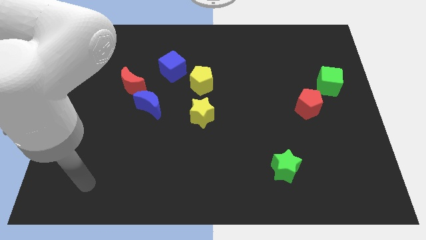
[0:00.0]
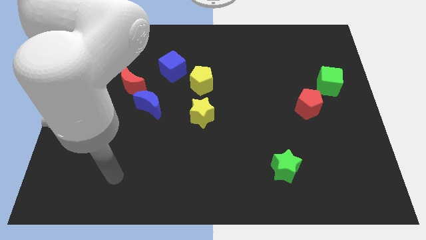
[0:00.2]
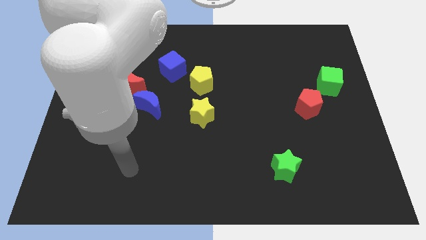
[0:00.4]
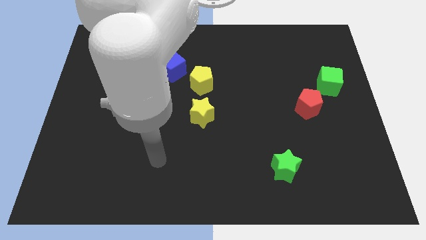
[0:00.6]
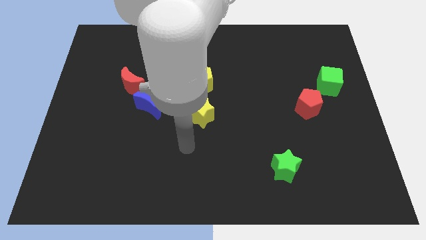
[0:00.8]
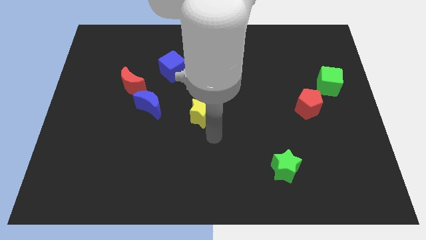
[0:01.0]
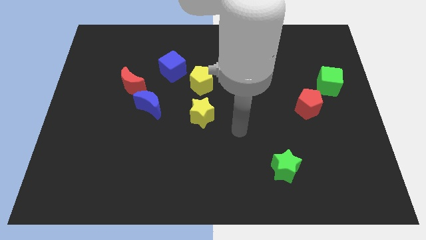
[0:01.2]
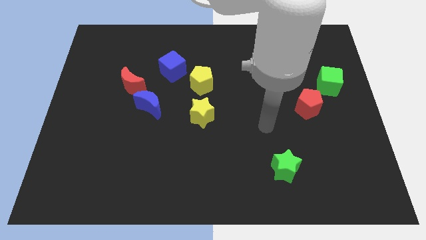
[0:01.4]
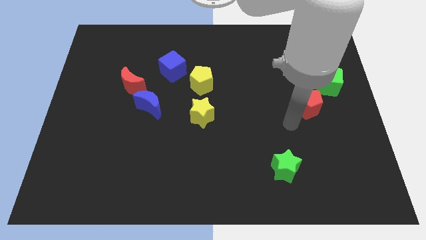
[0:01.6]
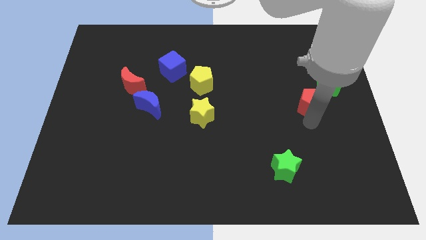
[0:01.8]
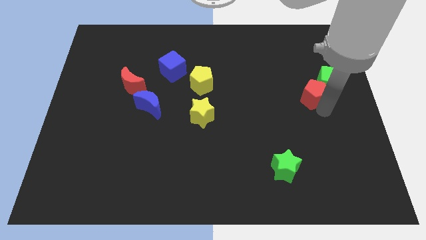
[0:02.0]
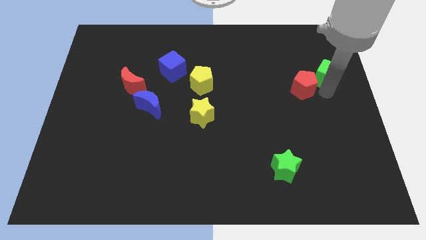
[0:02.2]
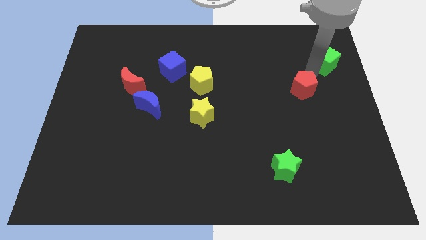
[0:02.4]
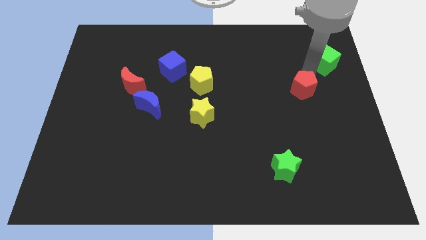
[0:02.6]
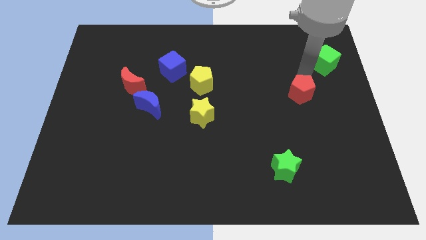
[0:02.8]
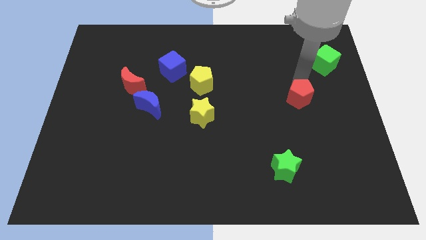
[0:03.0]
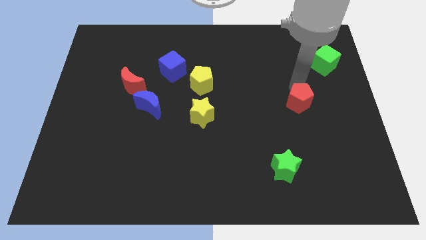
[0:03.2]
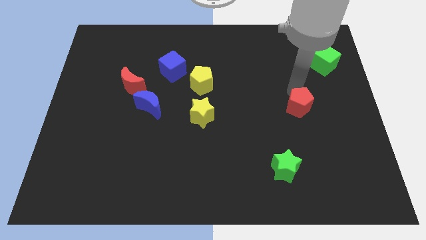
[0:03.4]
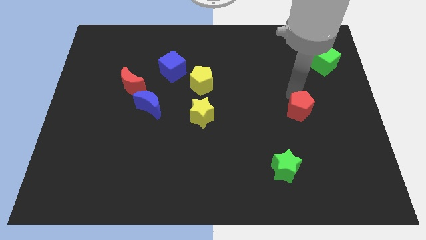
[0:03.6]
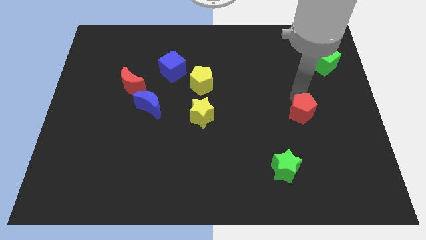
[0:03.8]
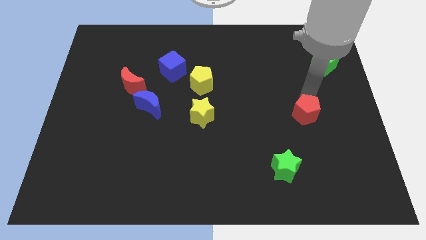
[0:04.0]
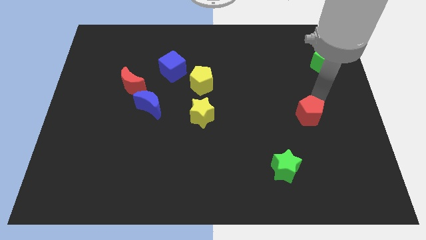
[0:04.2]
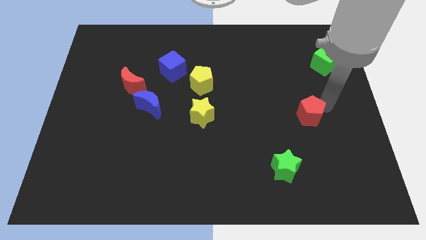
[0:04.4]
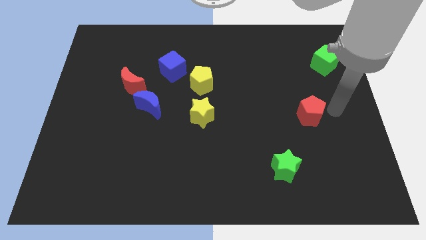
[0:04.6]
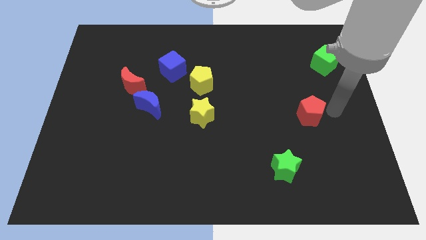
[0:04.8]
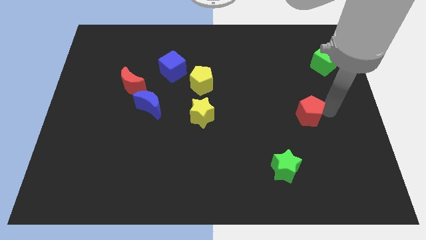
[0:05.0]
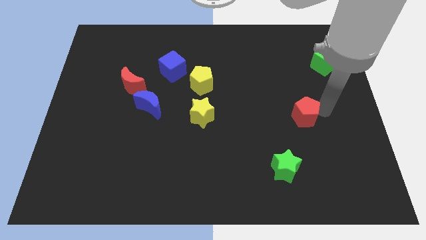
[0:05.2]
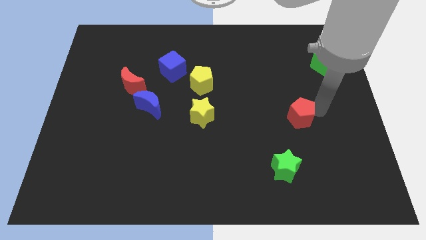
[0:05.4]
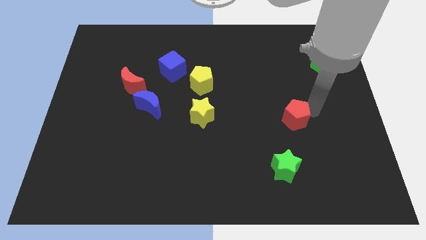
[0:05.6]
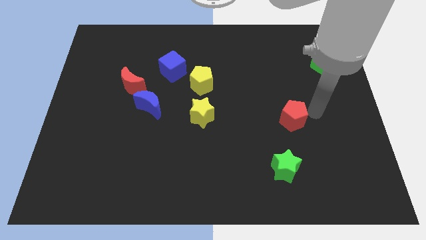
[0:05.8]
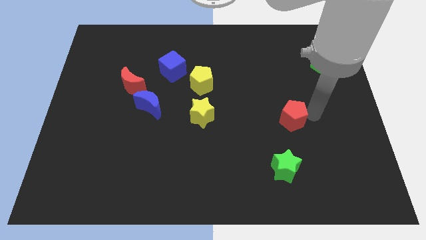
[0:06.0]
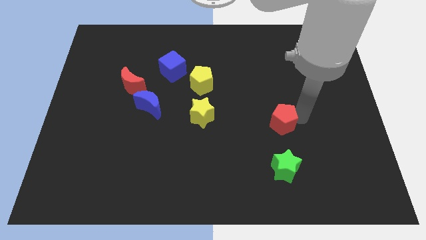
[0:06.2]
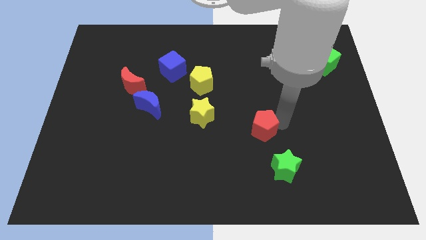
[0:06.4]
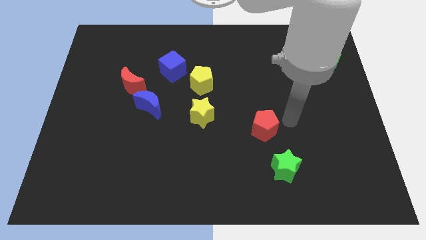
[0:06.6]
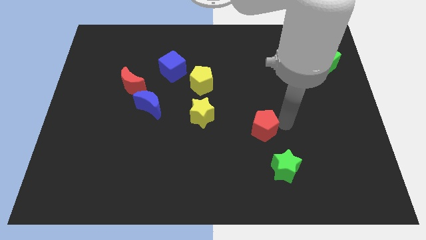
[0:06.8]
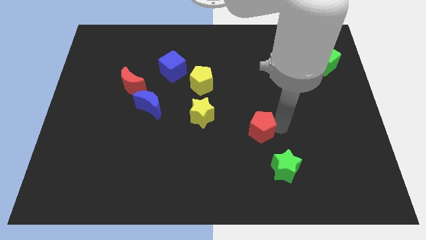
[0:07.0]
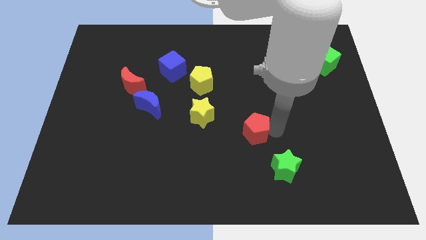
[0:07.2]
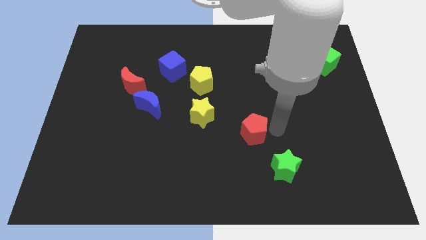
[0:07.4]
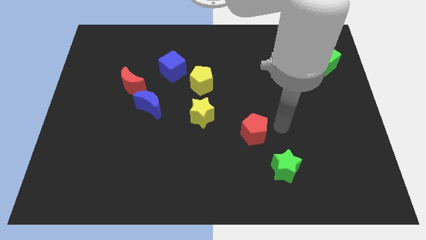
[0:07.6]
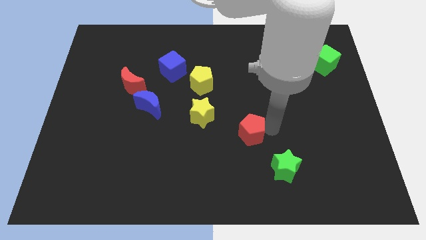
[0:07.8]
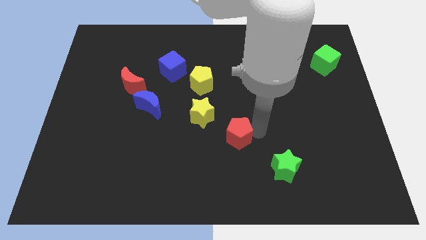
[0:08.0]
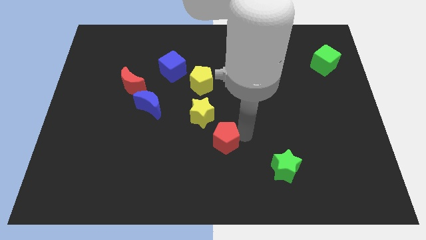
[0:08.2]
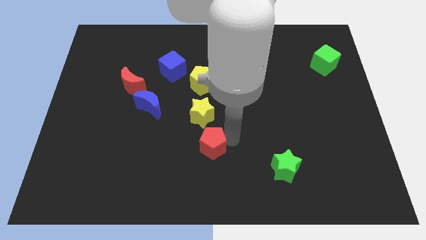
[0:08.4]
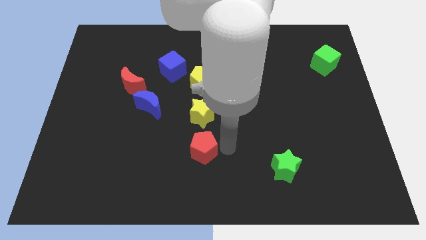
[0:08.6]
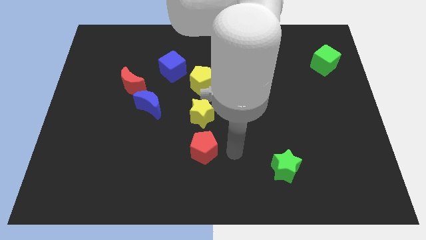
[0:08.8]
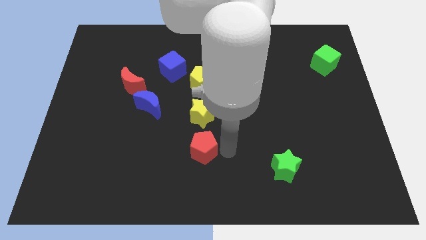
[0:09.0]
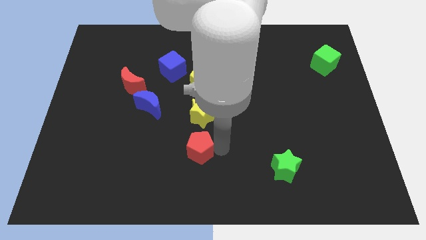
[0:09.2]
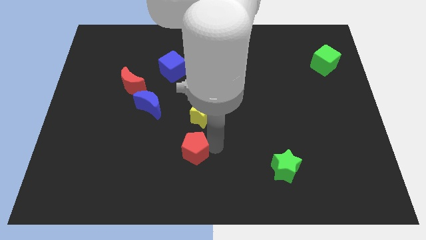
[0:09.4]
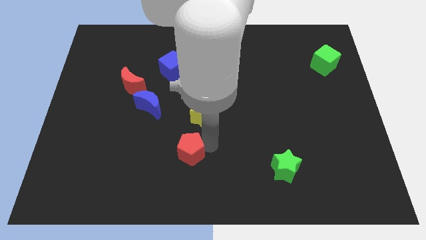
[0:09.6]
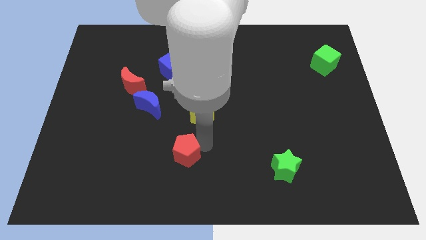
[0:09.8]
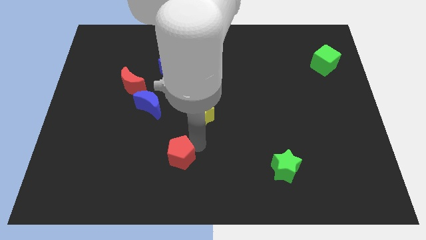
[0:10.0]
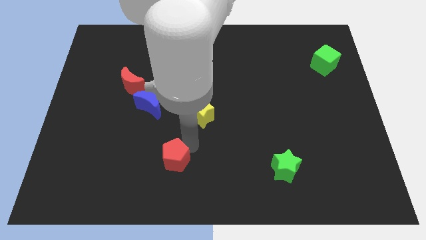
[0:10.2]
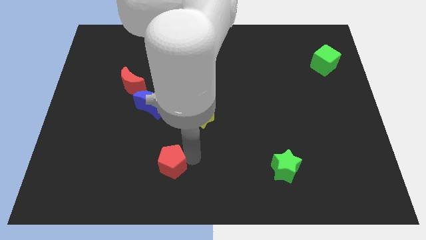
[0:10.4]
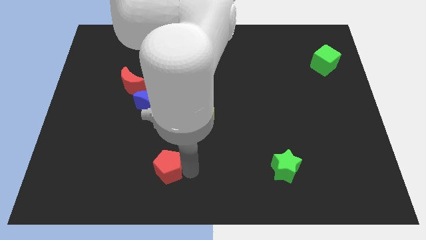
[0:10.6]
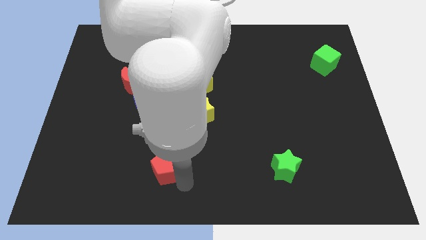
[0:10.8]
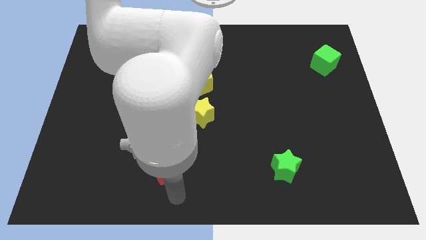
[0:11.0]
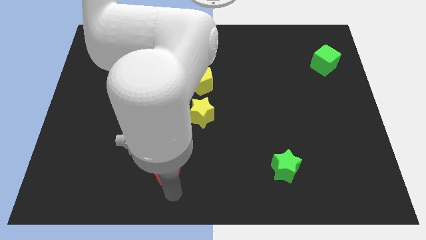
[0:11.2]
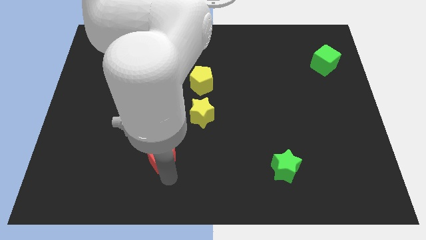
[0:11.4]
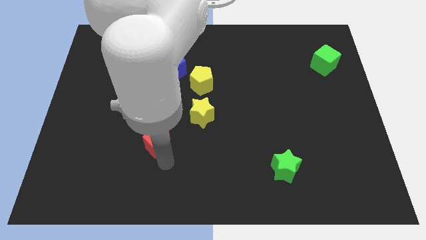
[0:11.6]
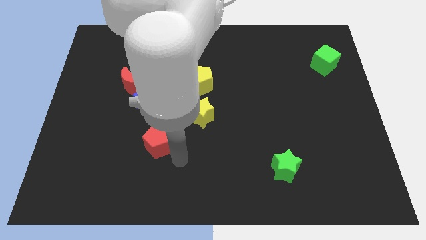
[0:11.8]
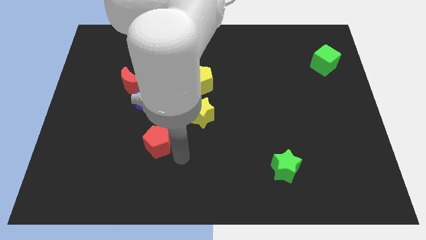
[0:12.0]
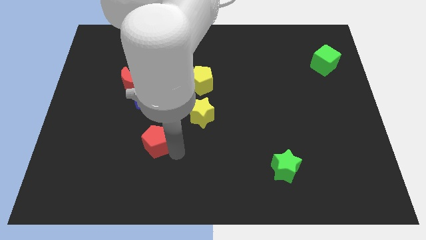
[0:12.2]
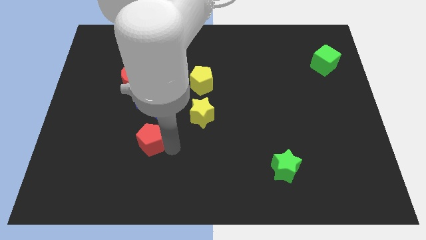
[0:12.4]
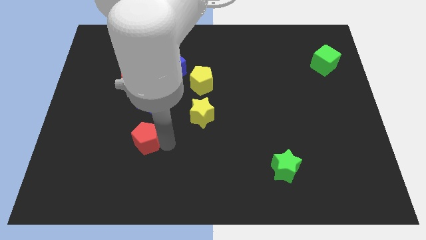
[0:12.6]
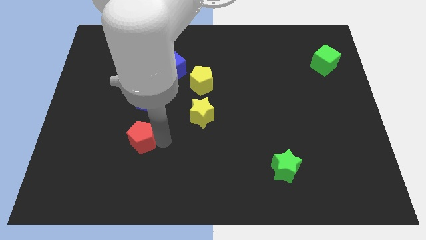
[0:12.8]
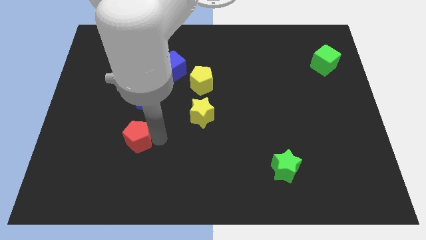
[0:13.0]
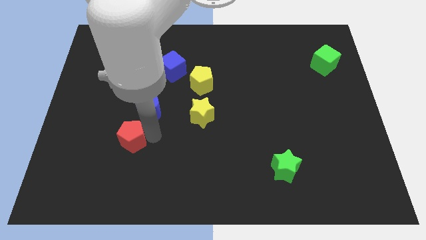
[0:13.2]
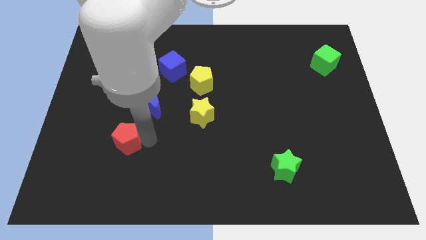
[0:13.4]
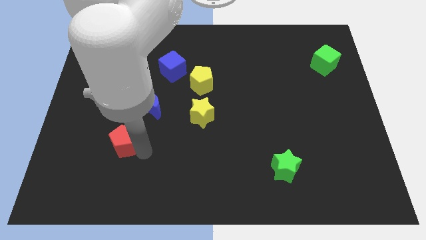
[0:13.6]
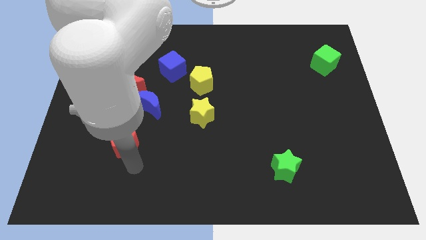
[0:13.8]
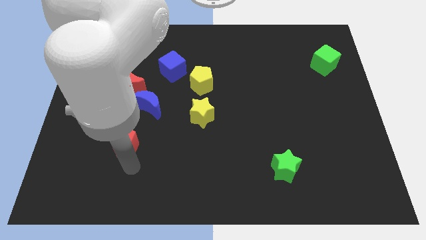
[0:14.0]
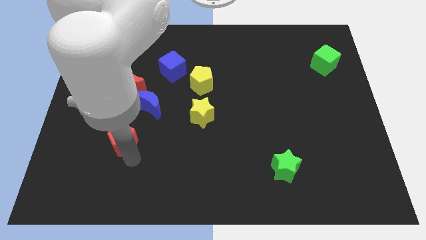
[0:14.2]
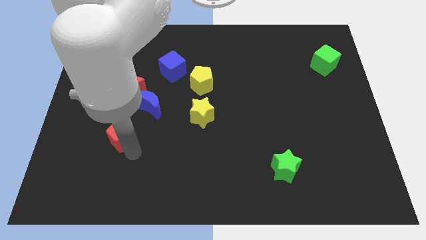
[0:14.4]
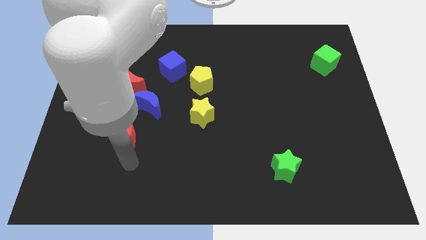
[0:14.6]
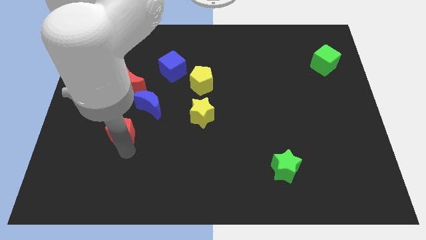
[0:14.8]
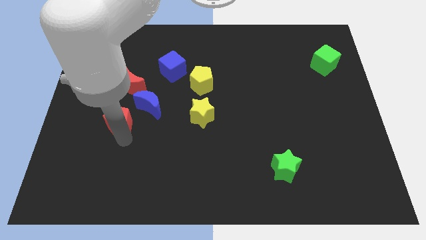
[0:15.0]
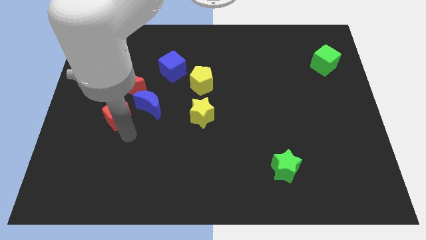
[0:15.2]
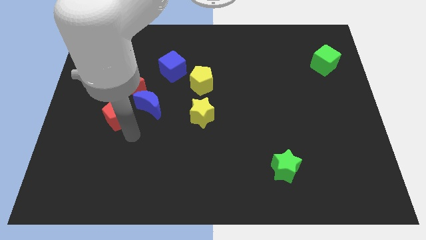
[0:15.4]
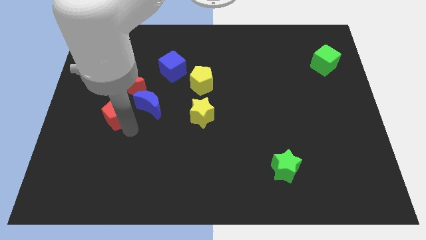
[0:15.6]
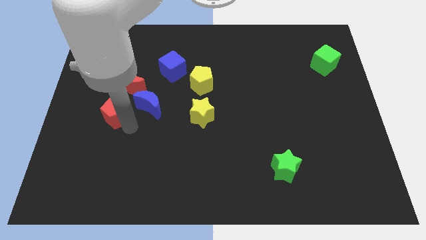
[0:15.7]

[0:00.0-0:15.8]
put the red pentagon to the bottom left side of the red moon

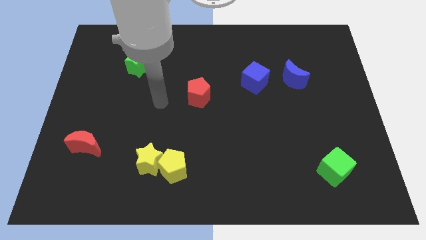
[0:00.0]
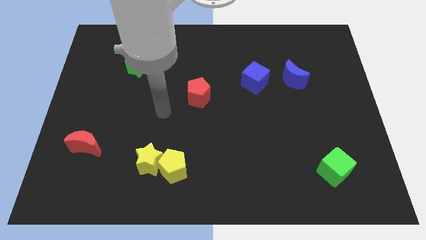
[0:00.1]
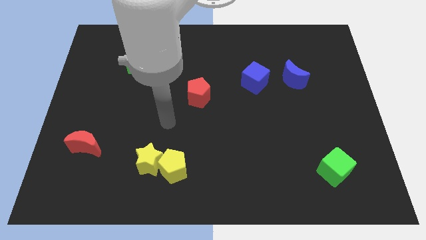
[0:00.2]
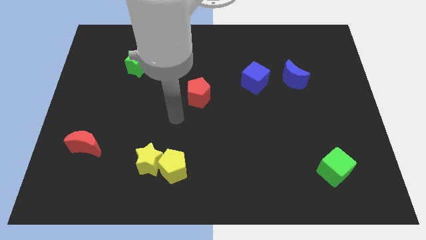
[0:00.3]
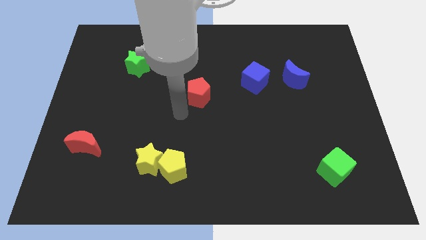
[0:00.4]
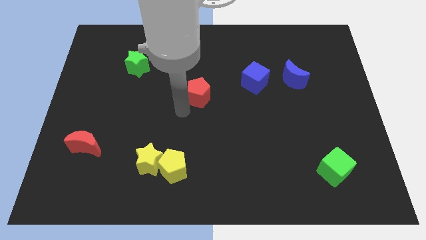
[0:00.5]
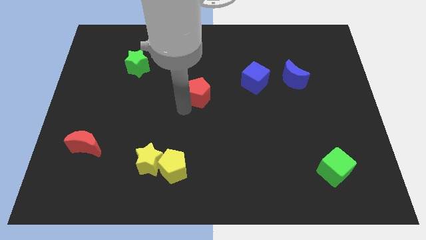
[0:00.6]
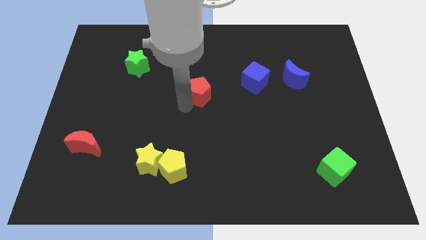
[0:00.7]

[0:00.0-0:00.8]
put the red pentagon left of the blue cube
